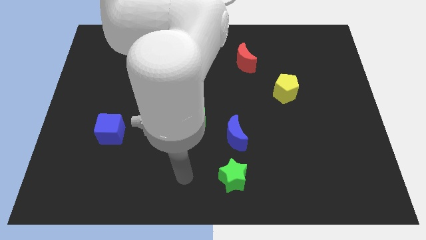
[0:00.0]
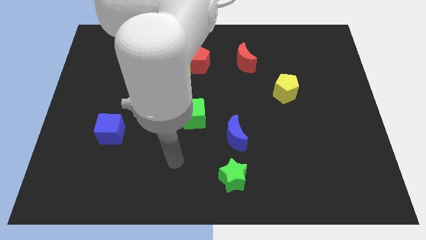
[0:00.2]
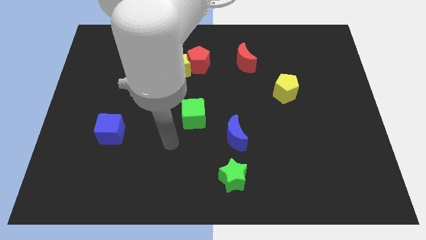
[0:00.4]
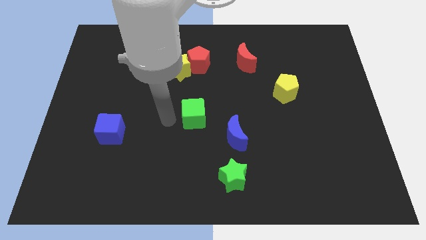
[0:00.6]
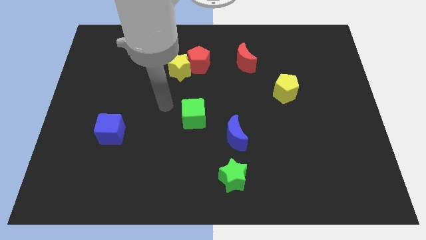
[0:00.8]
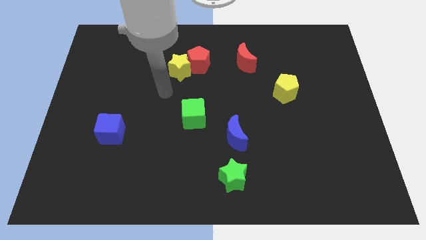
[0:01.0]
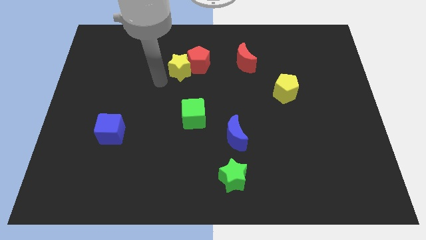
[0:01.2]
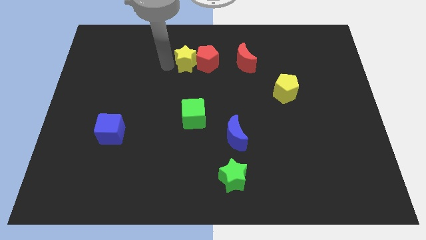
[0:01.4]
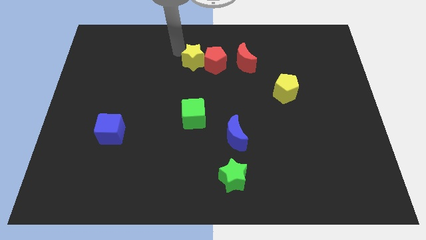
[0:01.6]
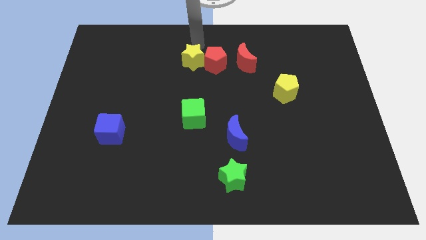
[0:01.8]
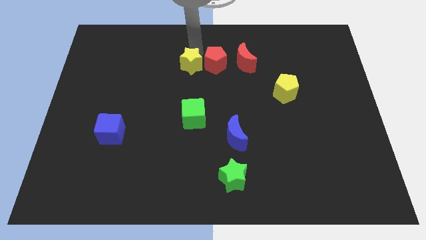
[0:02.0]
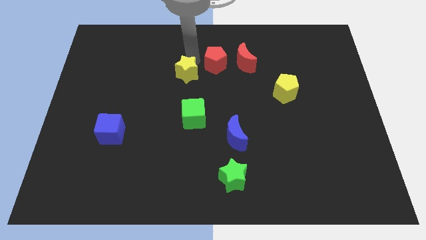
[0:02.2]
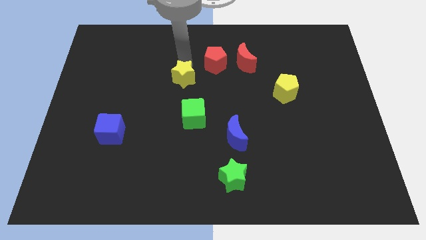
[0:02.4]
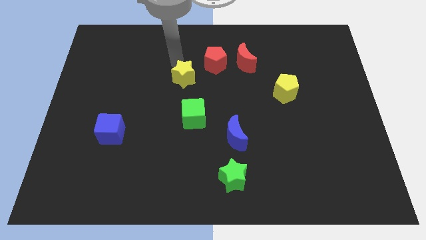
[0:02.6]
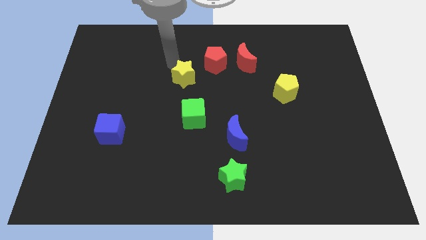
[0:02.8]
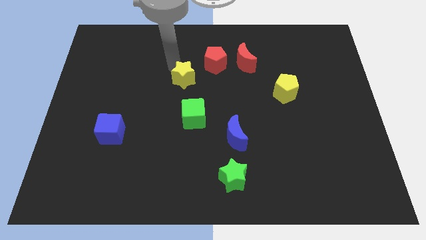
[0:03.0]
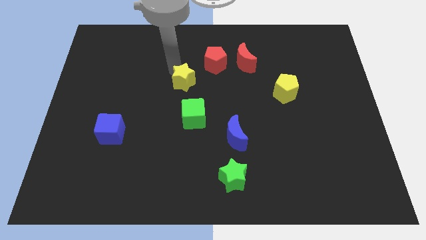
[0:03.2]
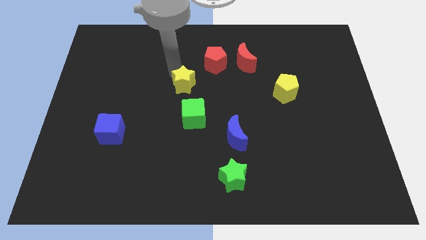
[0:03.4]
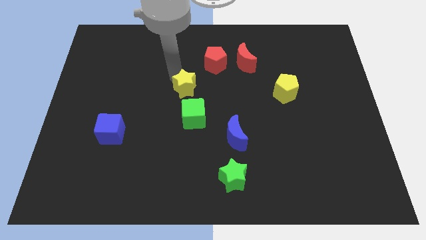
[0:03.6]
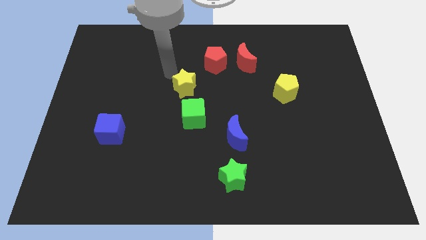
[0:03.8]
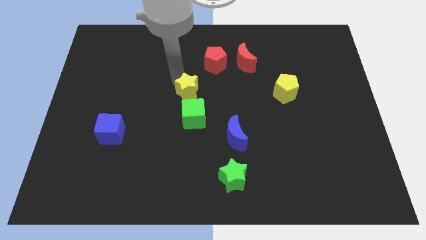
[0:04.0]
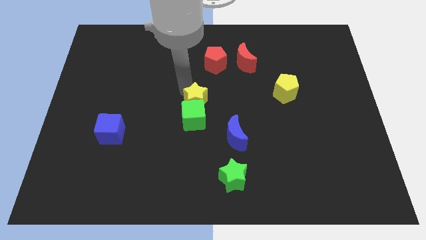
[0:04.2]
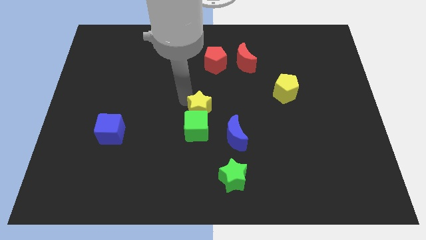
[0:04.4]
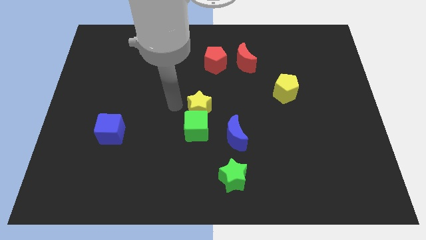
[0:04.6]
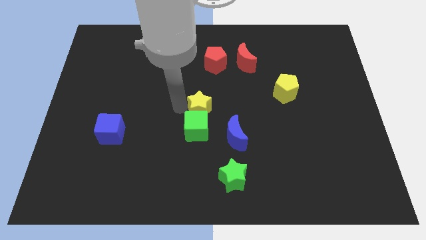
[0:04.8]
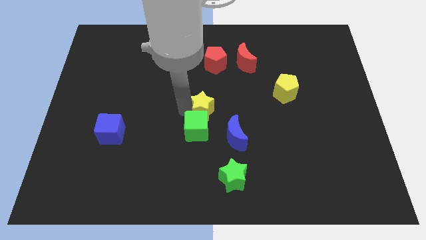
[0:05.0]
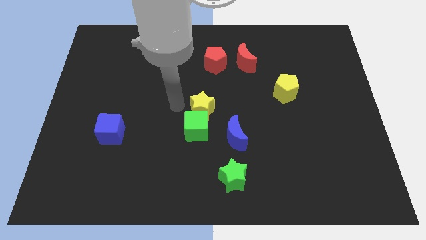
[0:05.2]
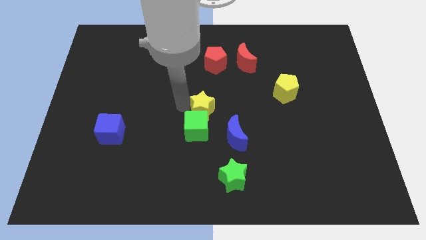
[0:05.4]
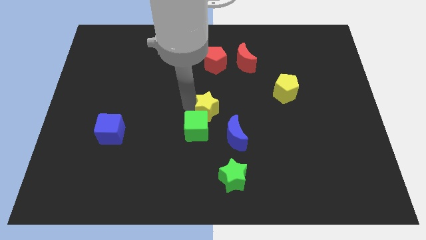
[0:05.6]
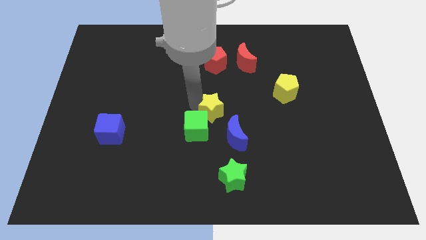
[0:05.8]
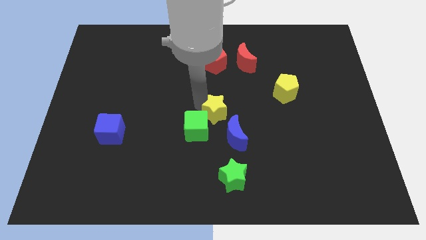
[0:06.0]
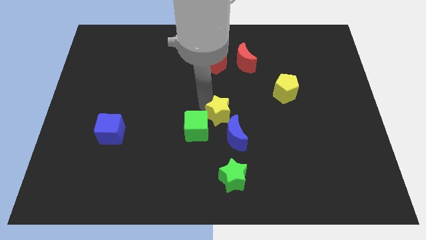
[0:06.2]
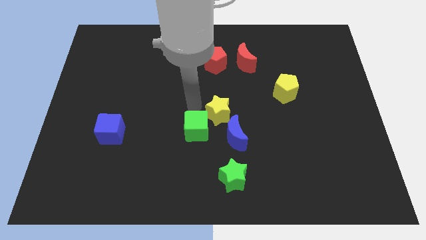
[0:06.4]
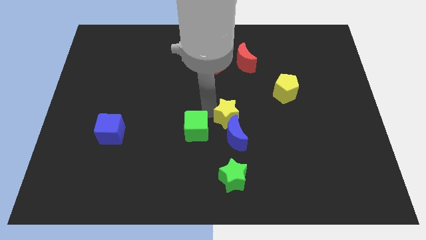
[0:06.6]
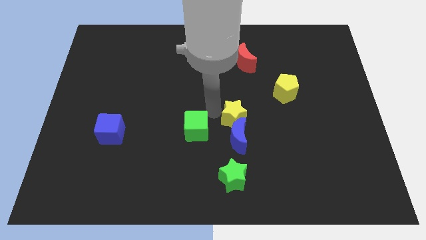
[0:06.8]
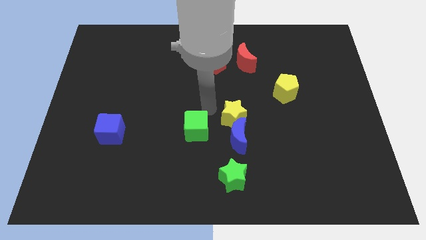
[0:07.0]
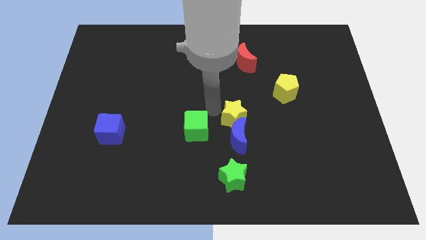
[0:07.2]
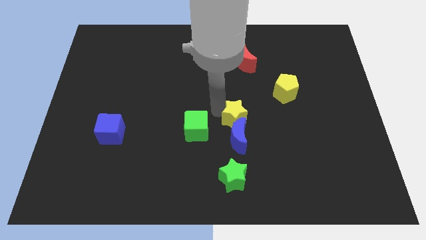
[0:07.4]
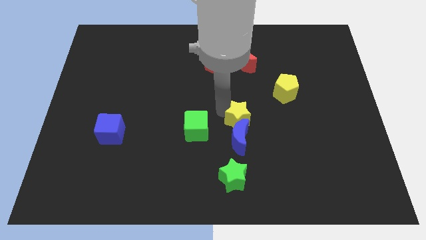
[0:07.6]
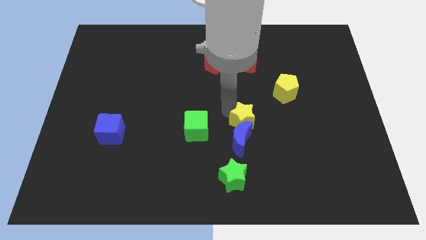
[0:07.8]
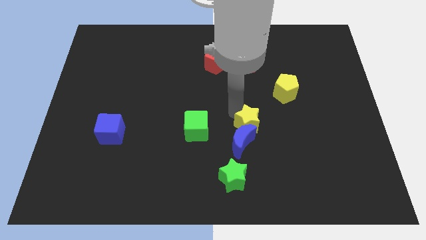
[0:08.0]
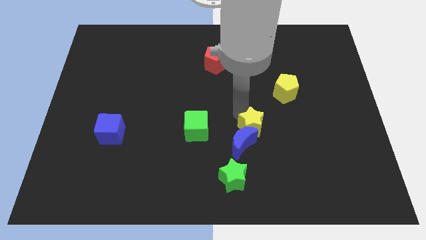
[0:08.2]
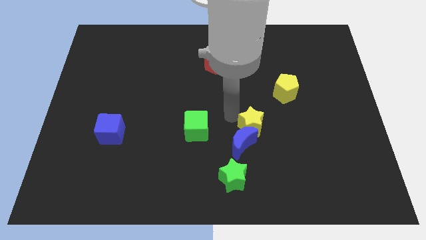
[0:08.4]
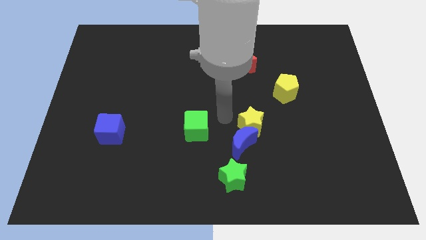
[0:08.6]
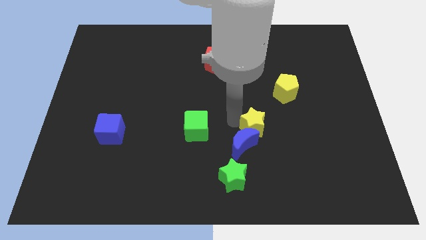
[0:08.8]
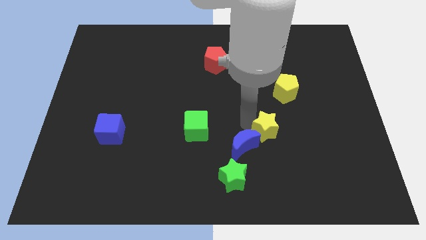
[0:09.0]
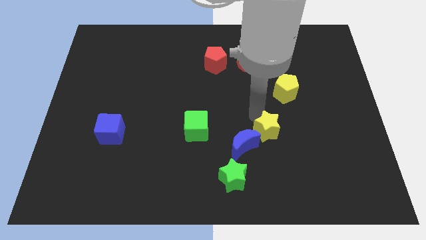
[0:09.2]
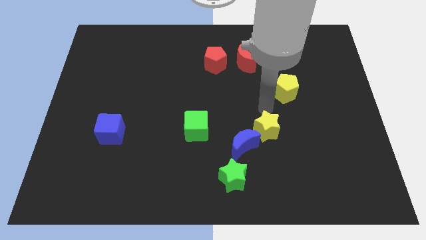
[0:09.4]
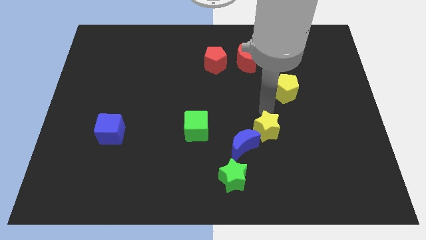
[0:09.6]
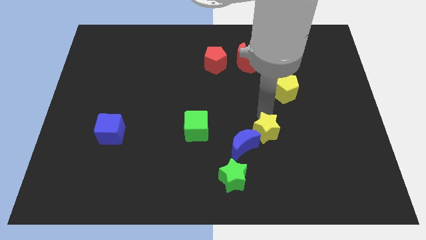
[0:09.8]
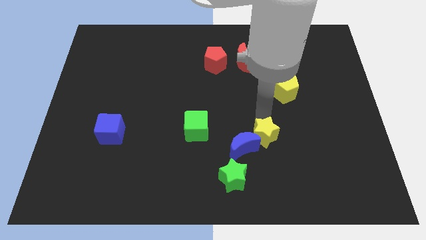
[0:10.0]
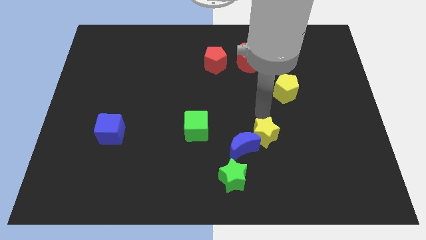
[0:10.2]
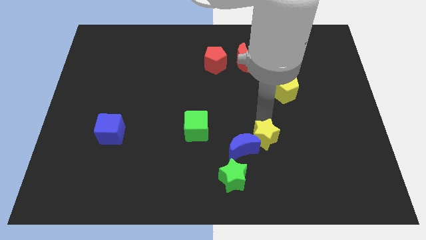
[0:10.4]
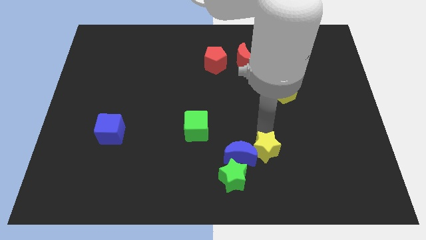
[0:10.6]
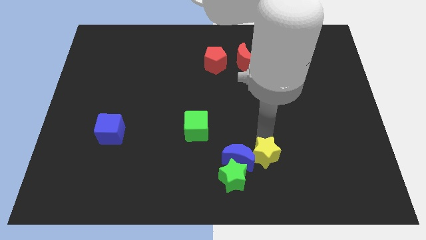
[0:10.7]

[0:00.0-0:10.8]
slide the yellow star right of the green star

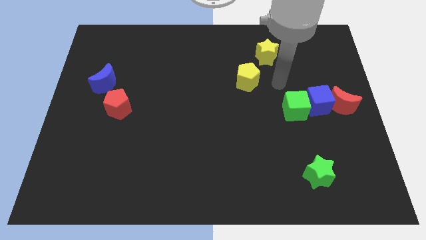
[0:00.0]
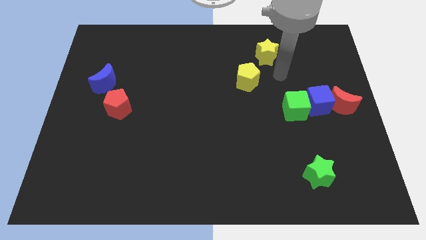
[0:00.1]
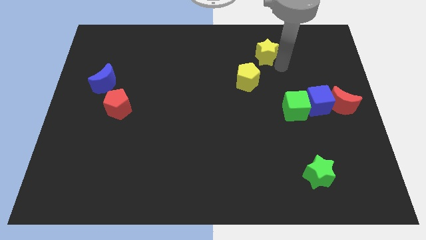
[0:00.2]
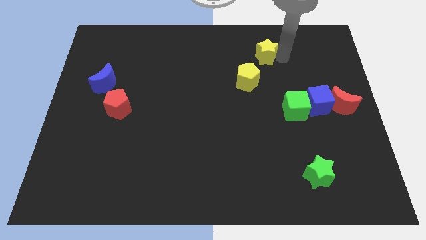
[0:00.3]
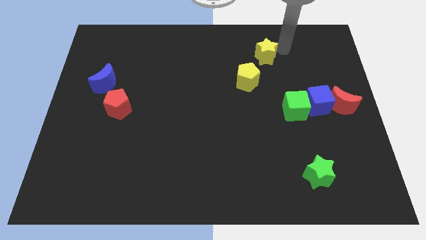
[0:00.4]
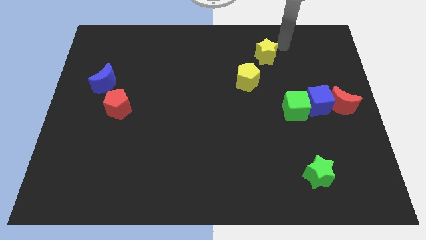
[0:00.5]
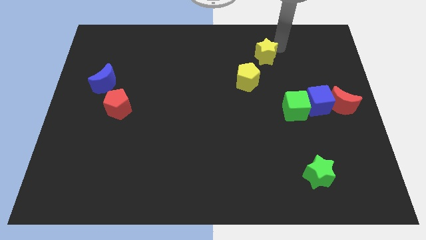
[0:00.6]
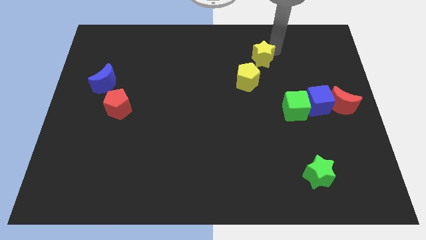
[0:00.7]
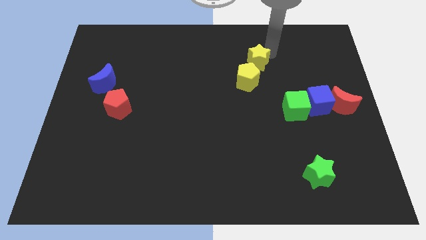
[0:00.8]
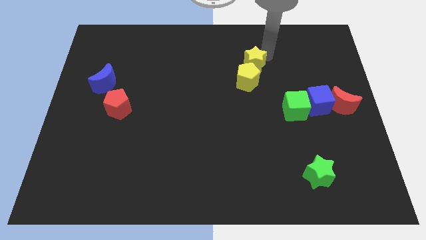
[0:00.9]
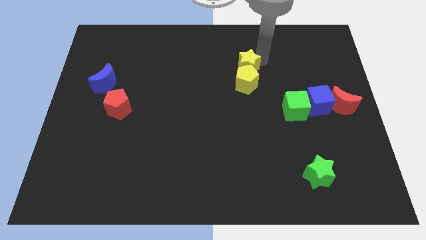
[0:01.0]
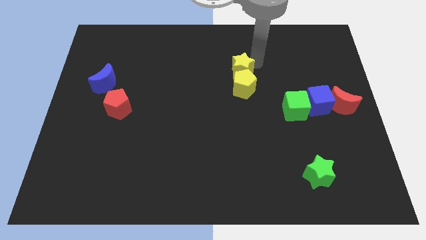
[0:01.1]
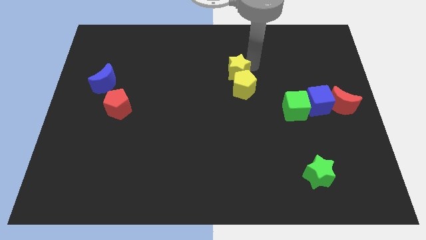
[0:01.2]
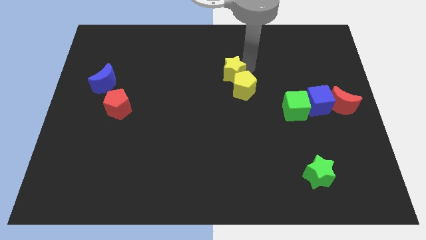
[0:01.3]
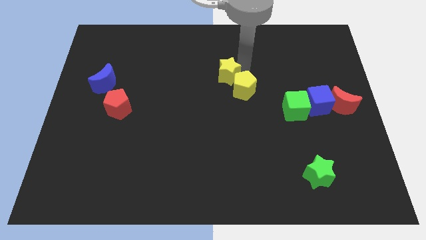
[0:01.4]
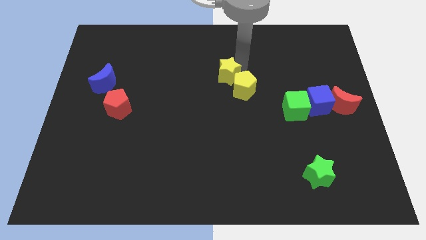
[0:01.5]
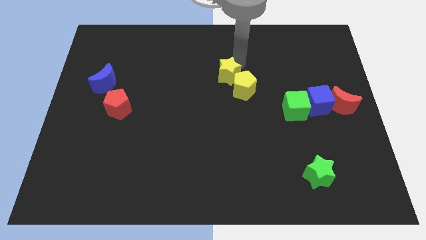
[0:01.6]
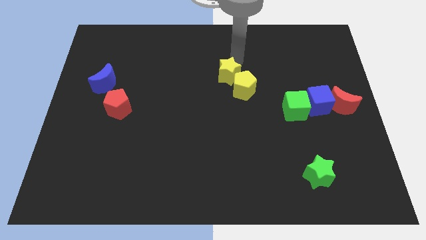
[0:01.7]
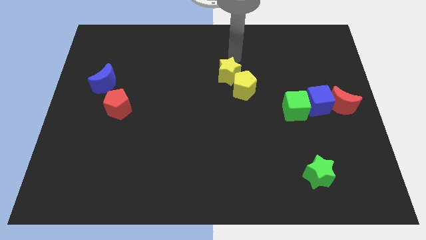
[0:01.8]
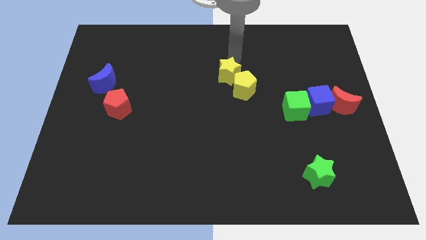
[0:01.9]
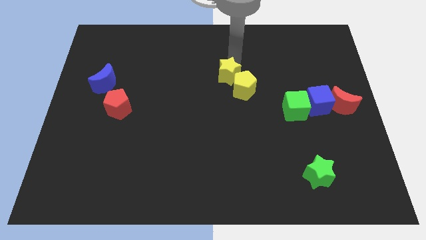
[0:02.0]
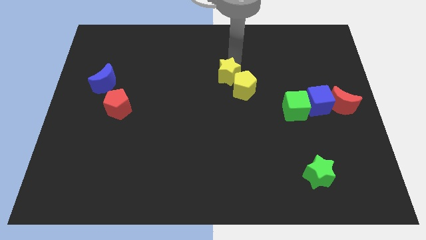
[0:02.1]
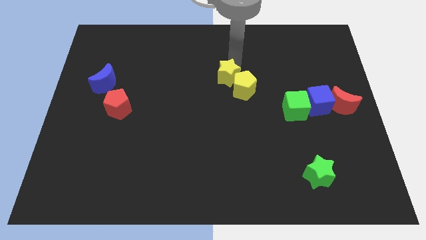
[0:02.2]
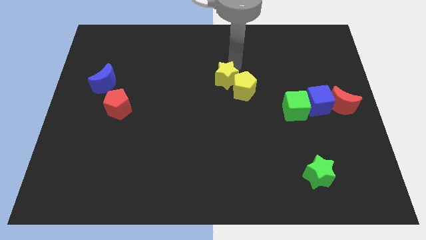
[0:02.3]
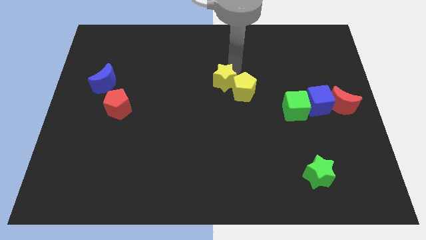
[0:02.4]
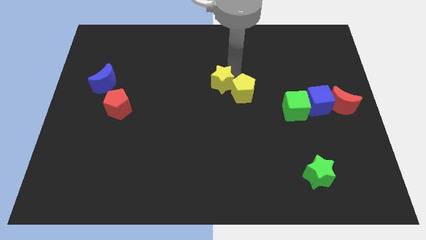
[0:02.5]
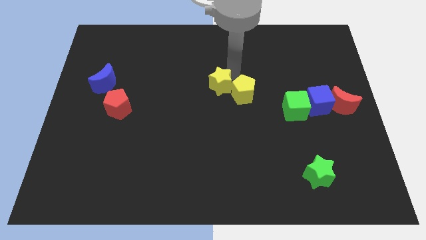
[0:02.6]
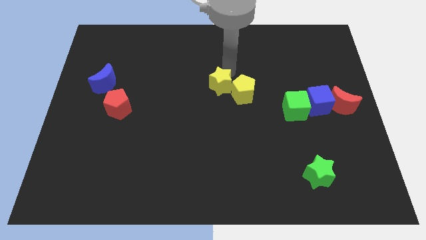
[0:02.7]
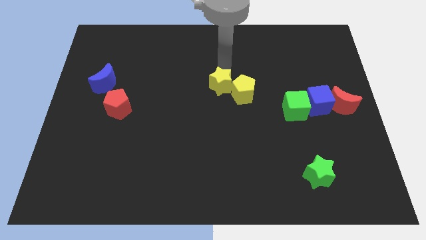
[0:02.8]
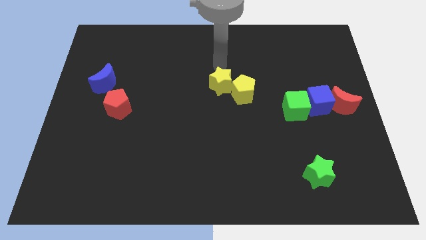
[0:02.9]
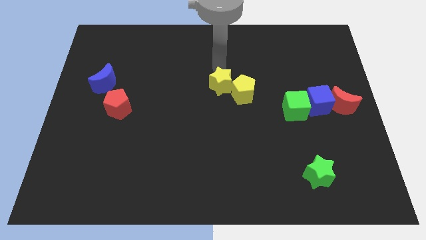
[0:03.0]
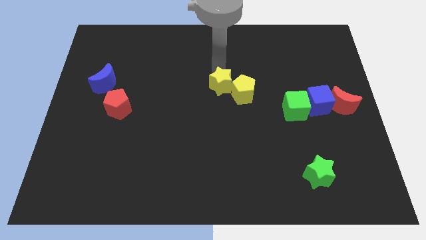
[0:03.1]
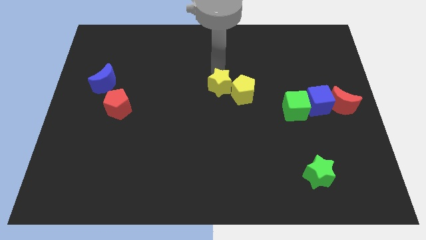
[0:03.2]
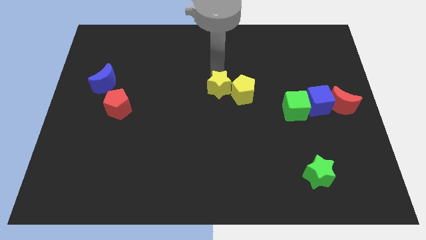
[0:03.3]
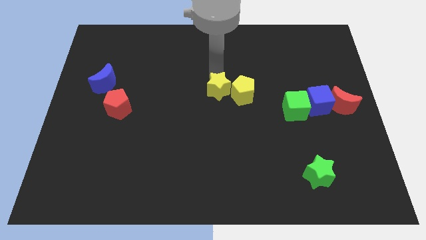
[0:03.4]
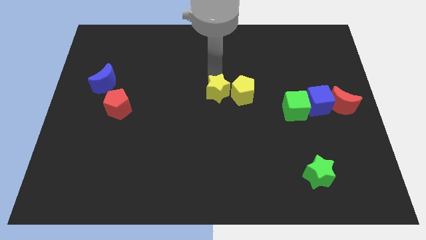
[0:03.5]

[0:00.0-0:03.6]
put the yellow star to the bottom left side of the yellow pentagon
